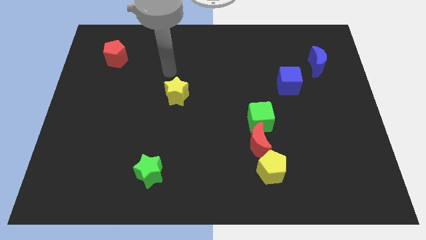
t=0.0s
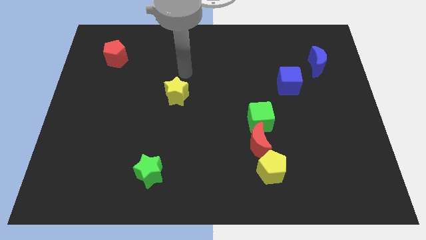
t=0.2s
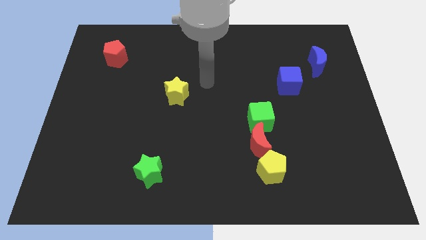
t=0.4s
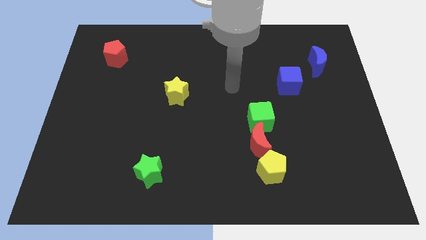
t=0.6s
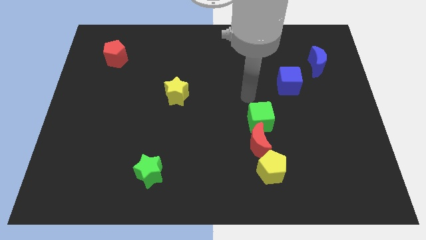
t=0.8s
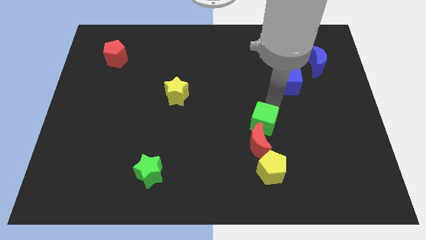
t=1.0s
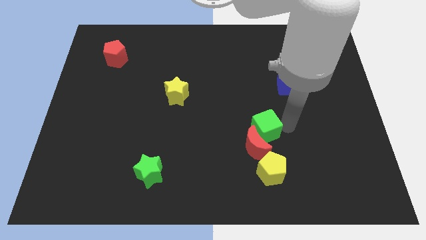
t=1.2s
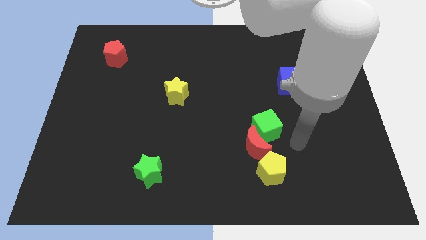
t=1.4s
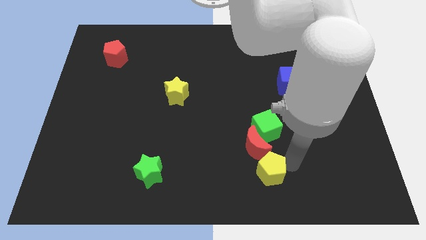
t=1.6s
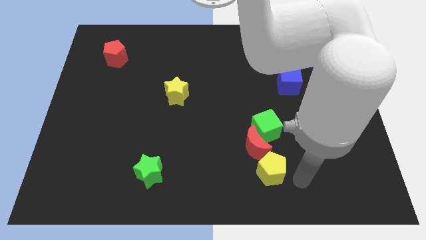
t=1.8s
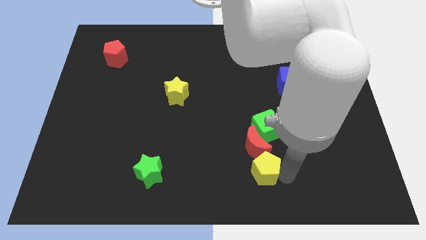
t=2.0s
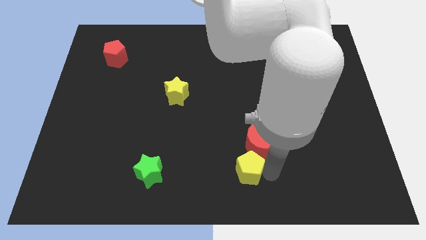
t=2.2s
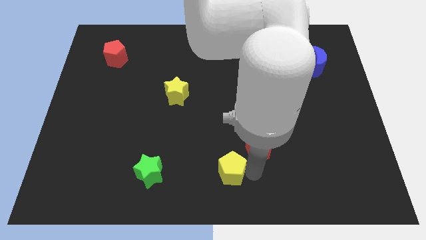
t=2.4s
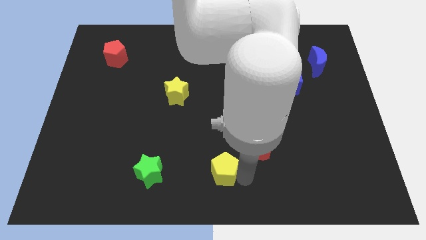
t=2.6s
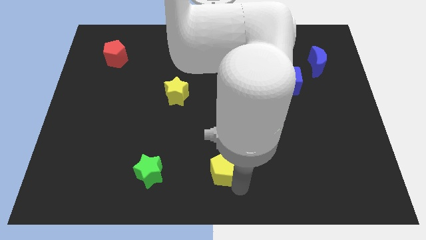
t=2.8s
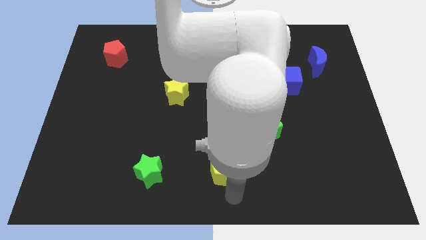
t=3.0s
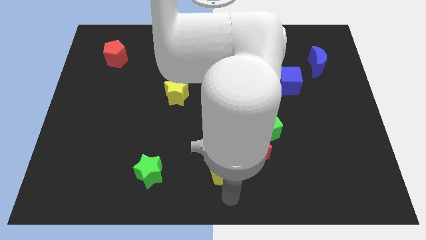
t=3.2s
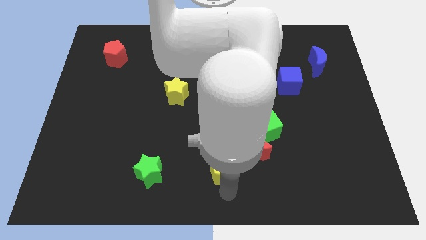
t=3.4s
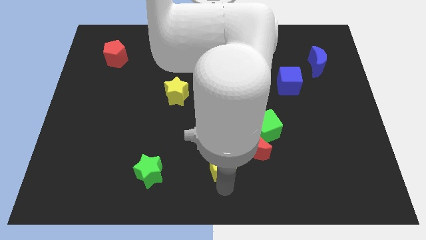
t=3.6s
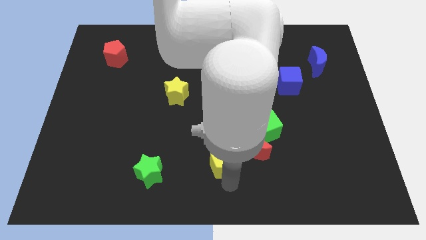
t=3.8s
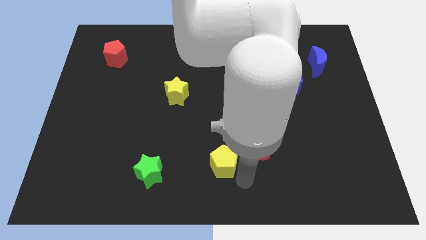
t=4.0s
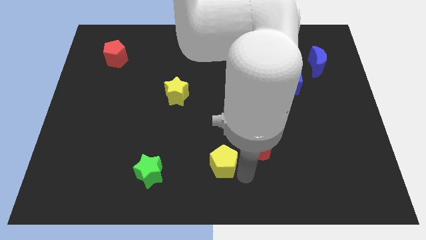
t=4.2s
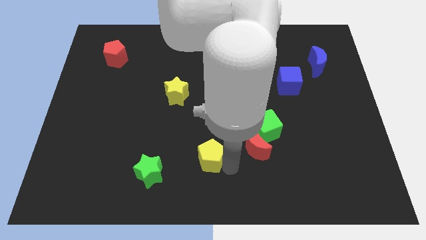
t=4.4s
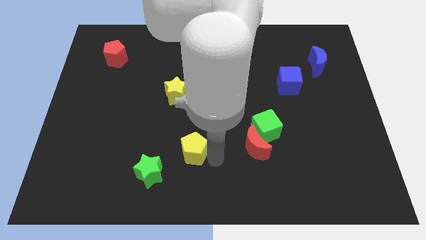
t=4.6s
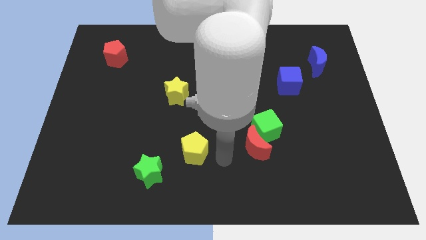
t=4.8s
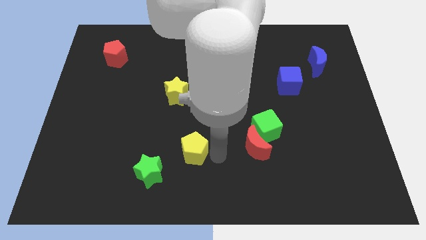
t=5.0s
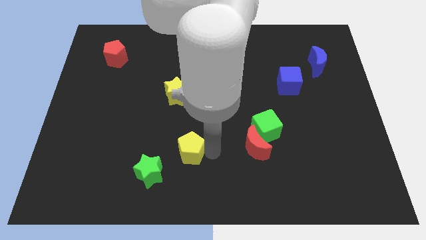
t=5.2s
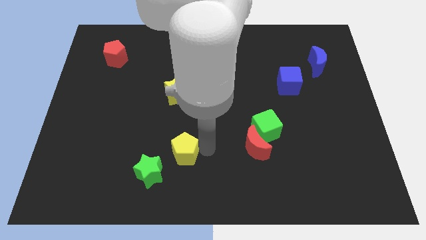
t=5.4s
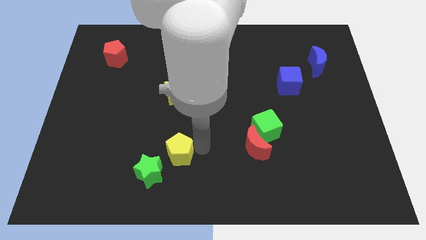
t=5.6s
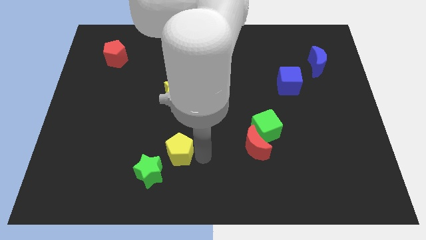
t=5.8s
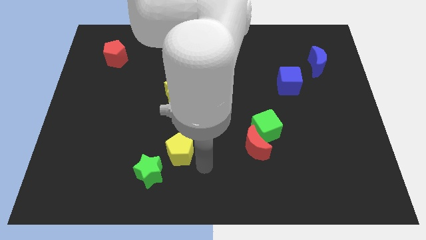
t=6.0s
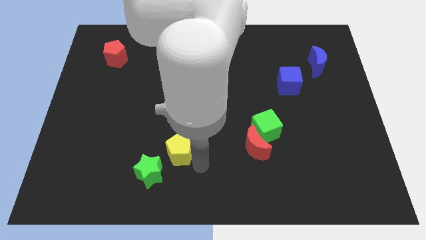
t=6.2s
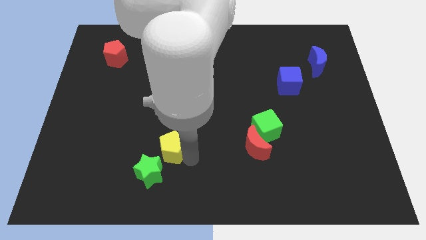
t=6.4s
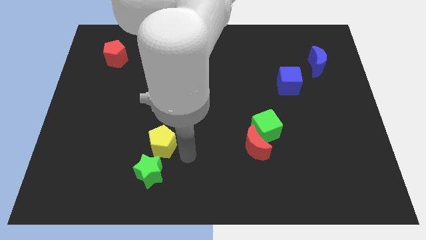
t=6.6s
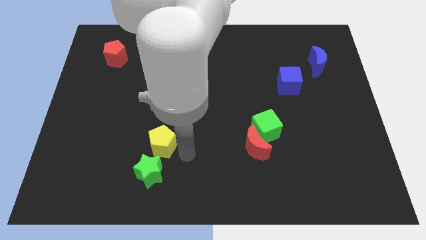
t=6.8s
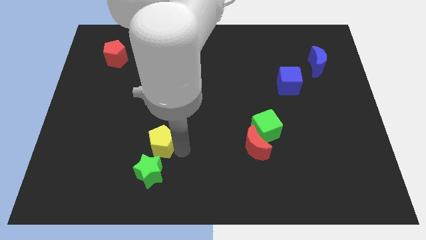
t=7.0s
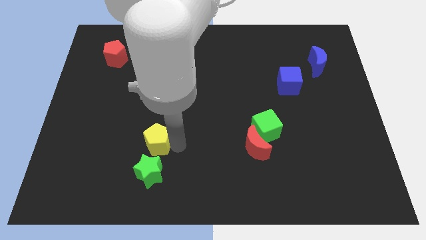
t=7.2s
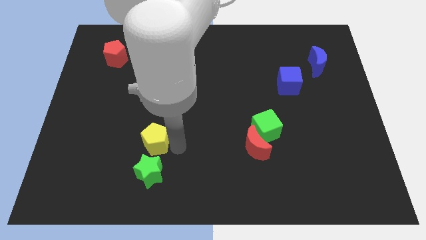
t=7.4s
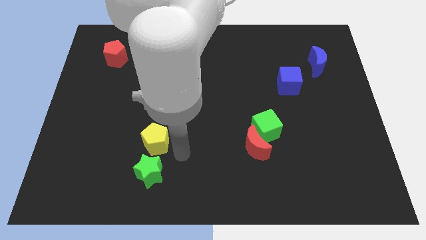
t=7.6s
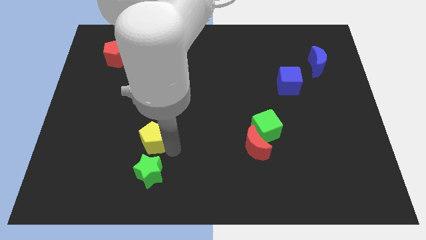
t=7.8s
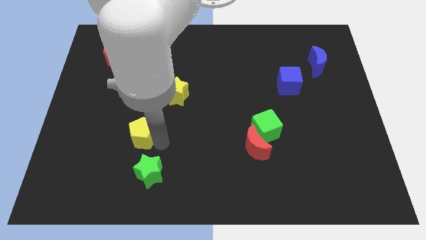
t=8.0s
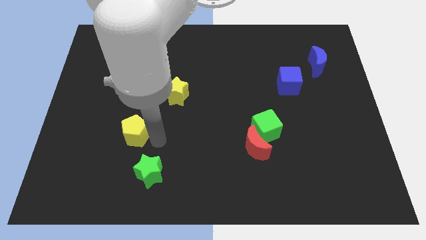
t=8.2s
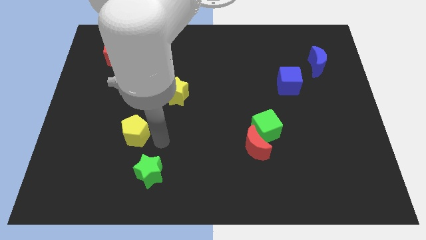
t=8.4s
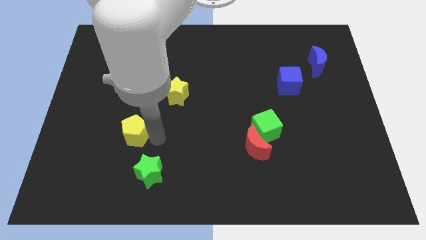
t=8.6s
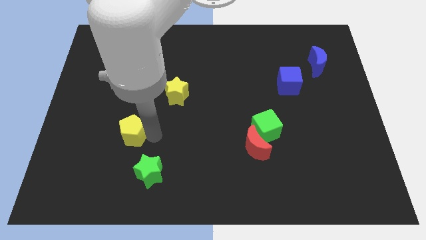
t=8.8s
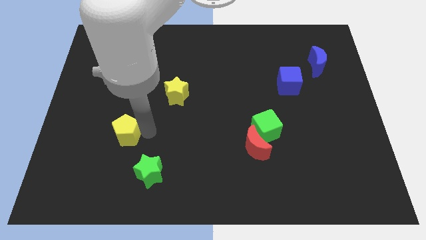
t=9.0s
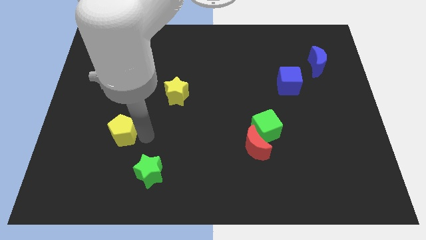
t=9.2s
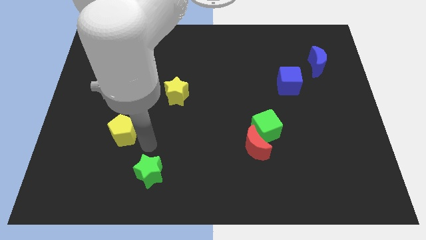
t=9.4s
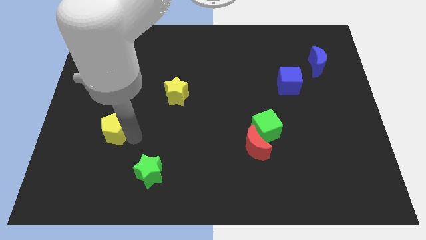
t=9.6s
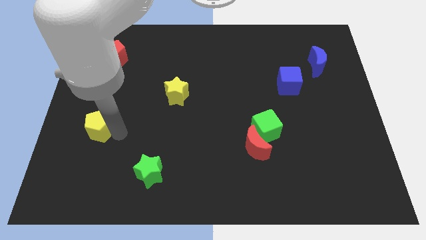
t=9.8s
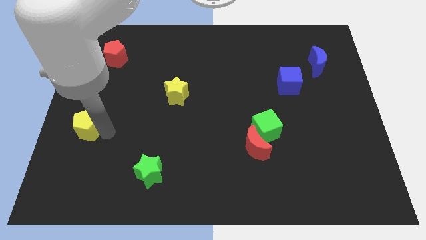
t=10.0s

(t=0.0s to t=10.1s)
push the yellow pentagon to the left side

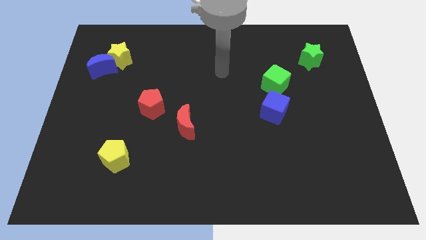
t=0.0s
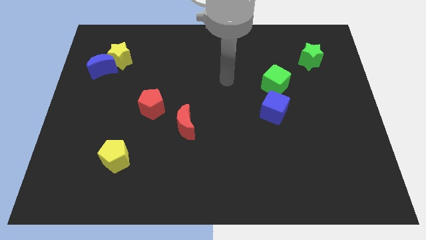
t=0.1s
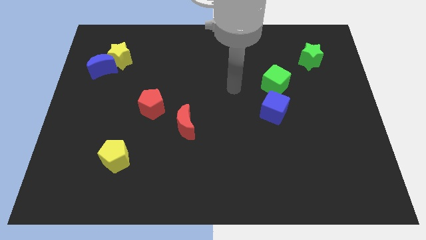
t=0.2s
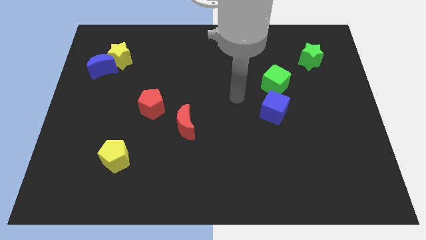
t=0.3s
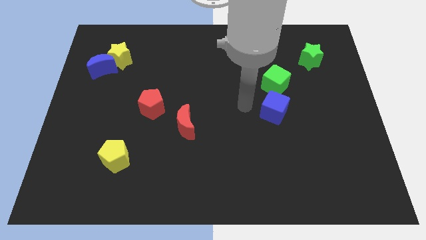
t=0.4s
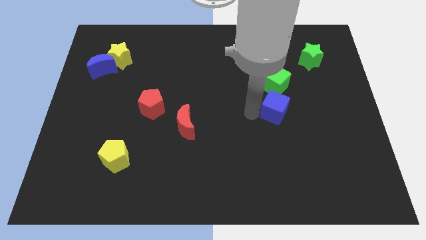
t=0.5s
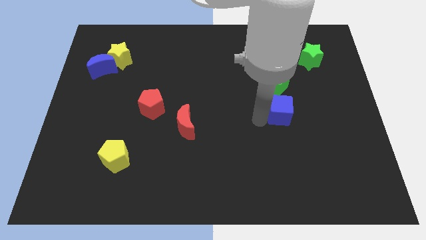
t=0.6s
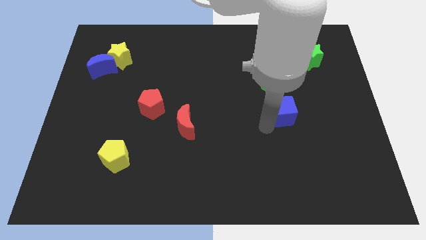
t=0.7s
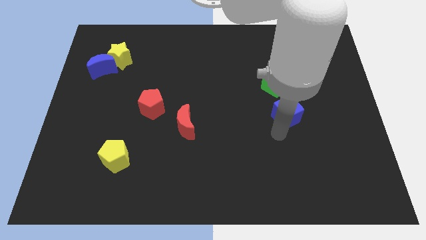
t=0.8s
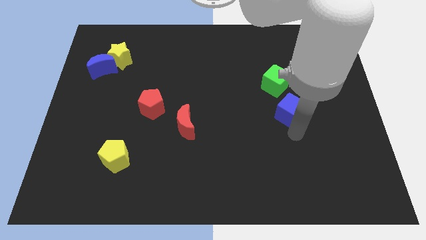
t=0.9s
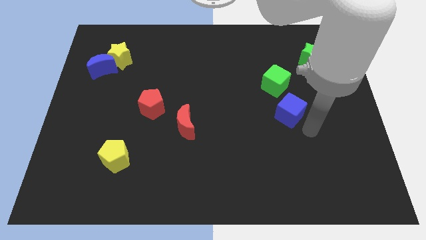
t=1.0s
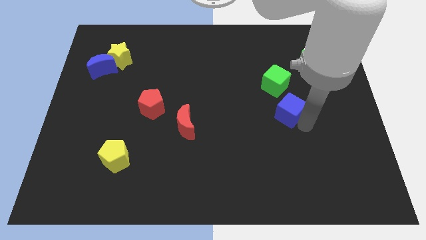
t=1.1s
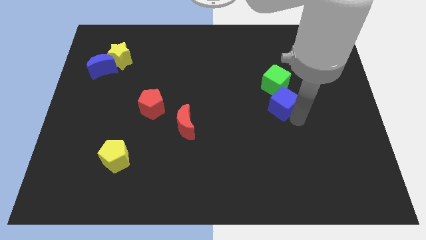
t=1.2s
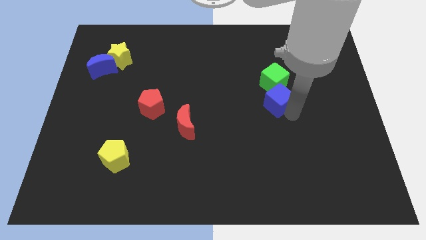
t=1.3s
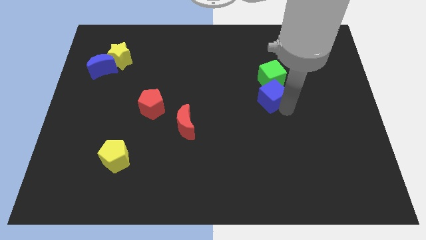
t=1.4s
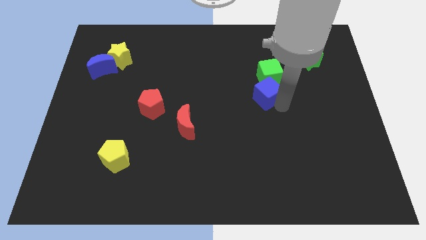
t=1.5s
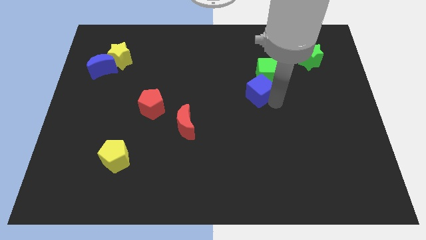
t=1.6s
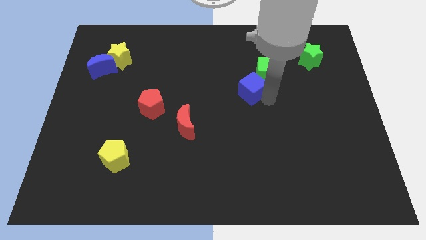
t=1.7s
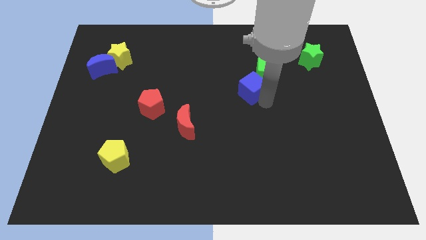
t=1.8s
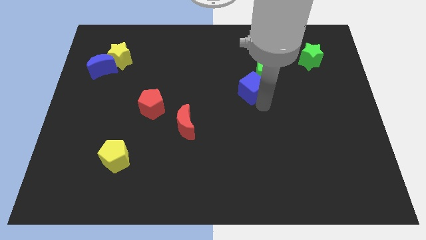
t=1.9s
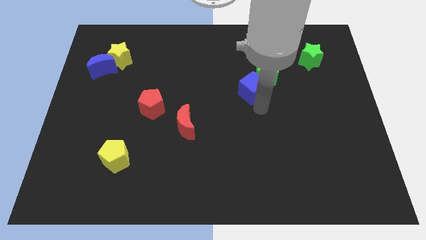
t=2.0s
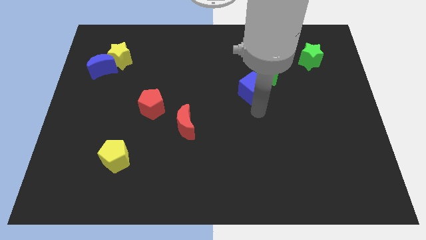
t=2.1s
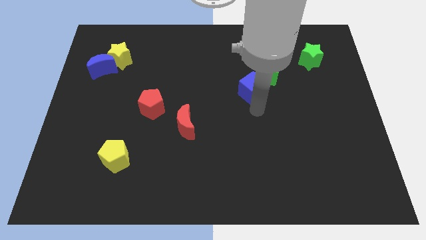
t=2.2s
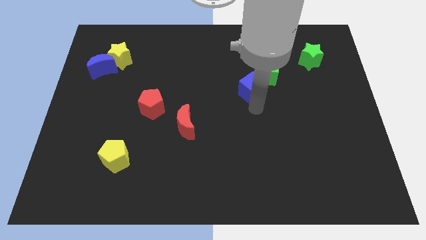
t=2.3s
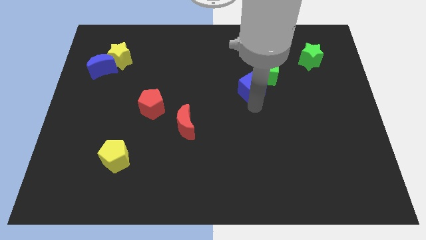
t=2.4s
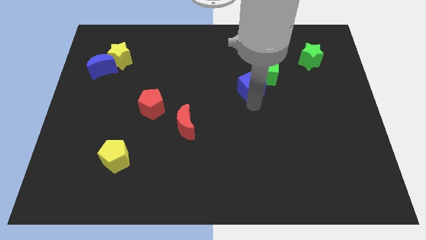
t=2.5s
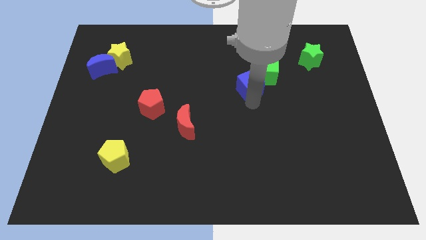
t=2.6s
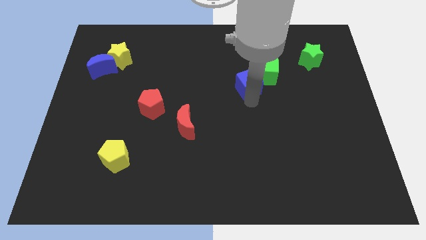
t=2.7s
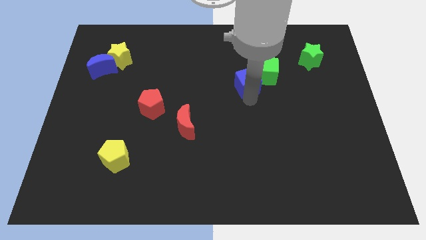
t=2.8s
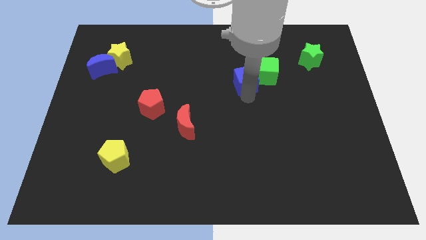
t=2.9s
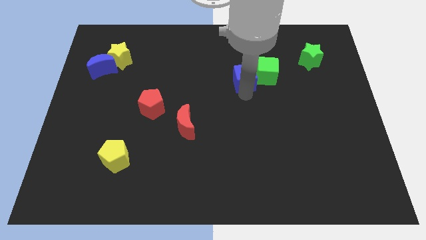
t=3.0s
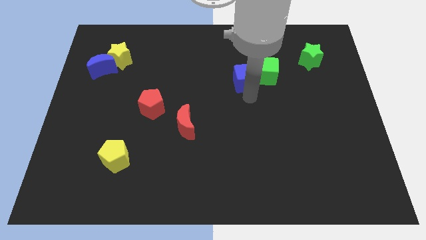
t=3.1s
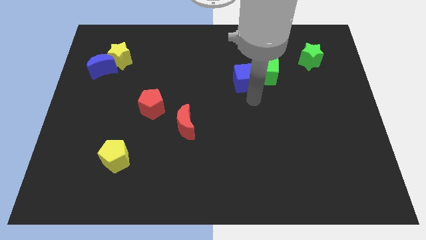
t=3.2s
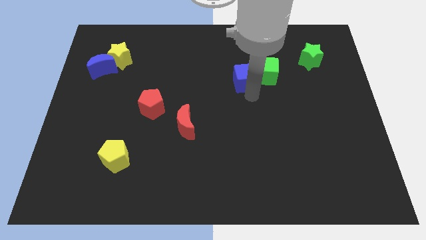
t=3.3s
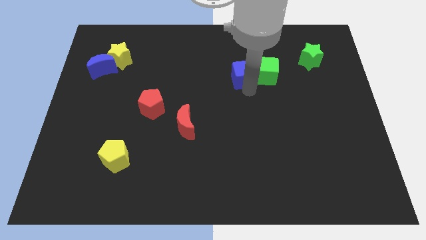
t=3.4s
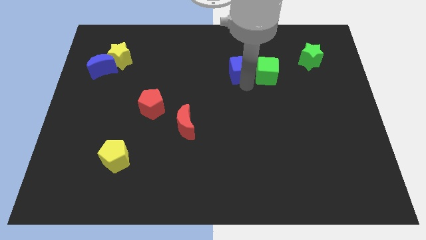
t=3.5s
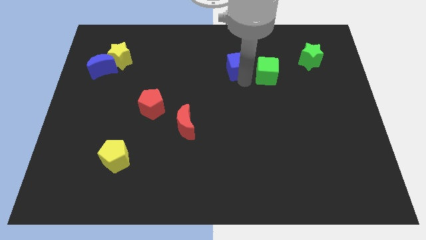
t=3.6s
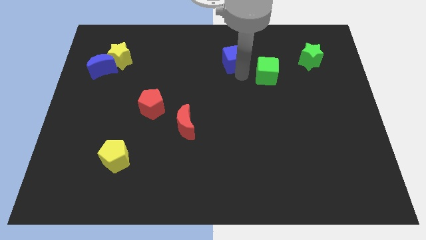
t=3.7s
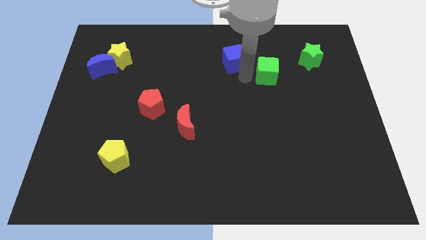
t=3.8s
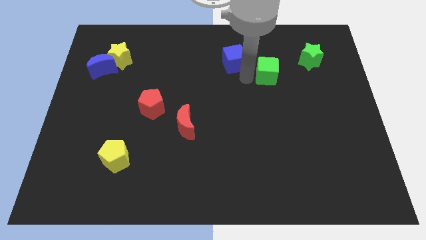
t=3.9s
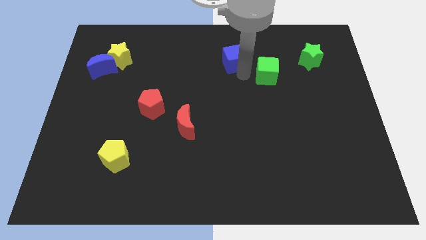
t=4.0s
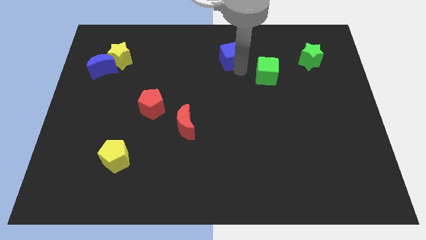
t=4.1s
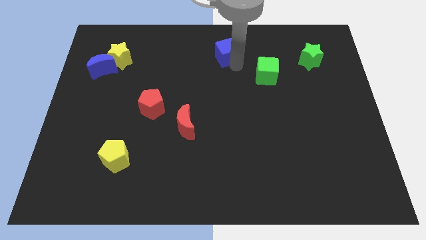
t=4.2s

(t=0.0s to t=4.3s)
put the blue cube to the towards your base
